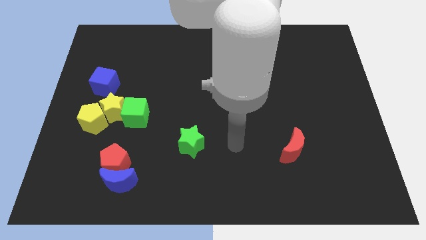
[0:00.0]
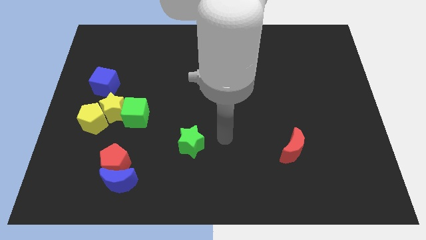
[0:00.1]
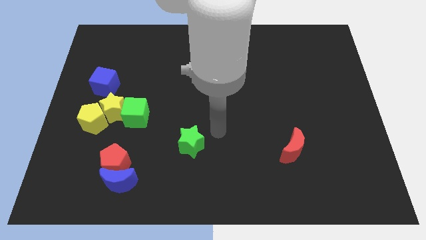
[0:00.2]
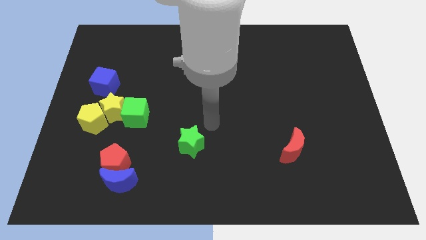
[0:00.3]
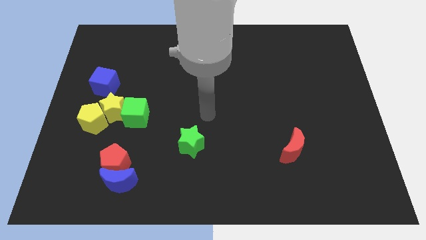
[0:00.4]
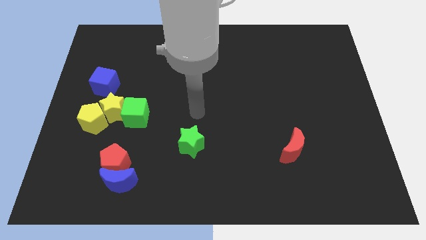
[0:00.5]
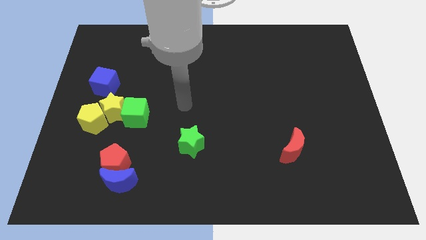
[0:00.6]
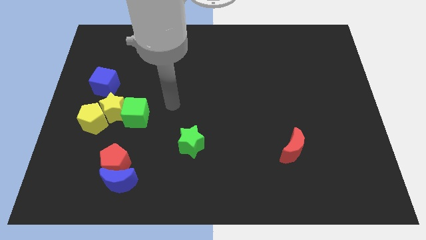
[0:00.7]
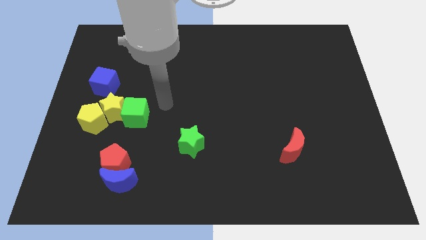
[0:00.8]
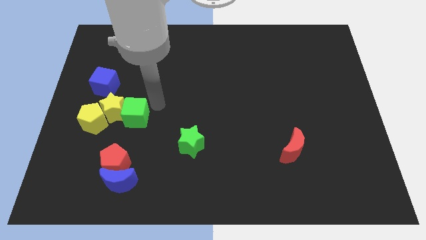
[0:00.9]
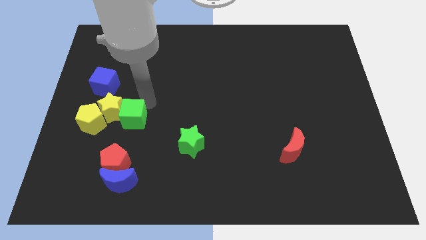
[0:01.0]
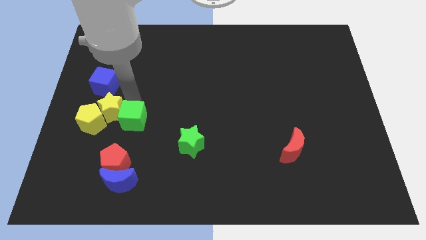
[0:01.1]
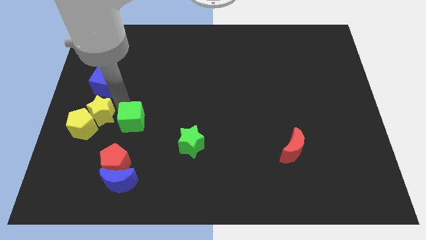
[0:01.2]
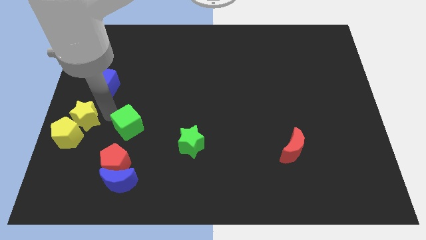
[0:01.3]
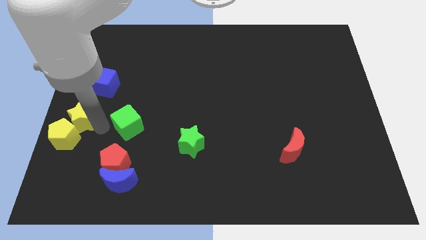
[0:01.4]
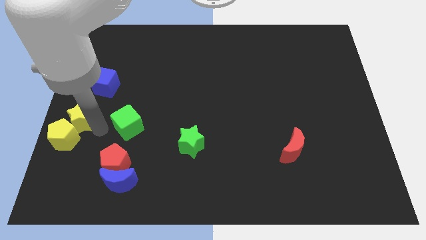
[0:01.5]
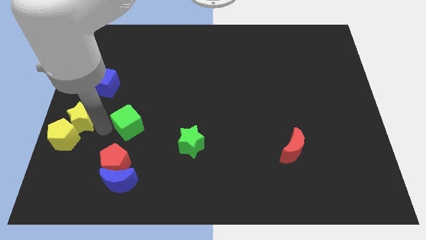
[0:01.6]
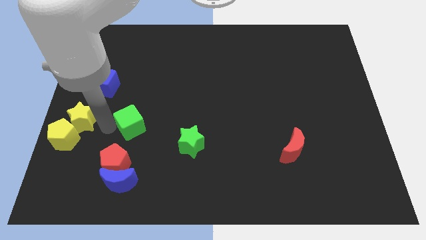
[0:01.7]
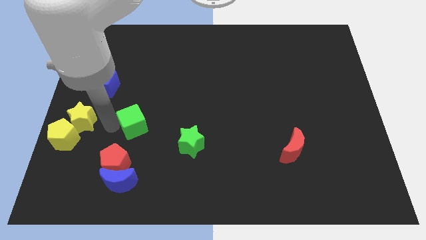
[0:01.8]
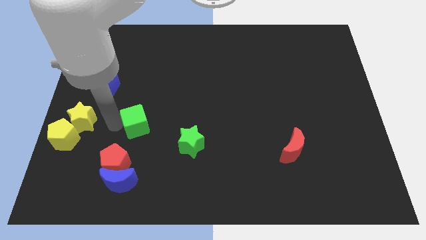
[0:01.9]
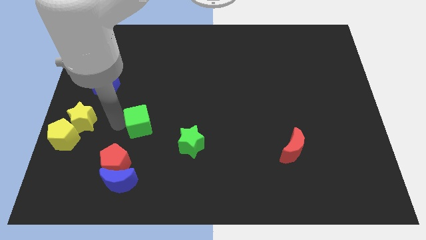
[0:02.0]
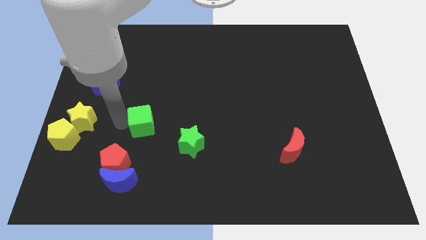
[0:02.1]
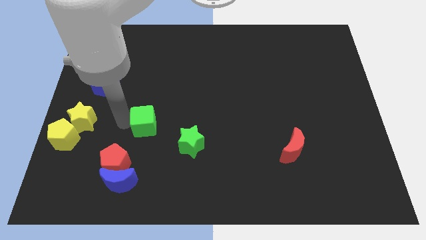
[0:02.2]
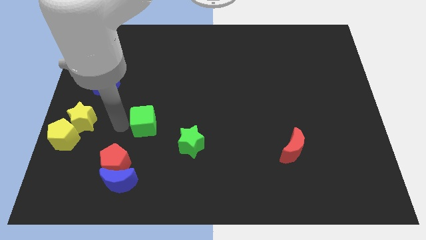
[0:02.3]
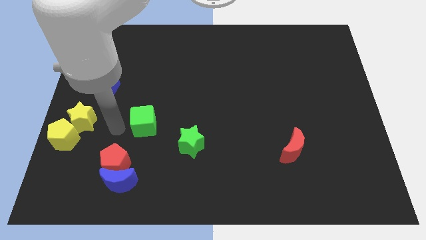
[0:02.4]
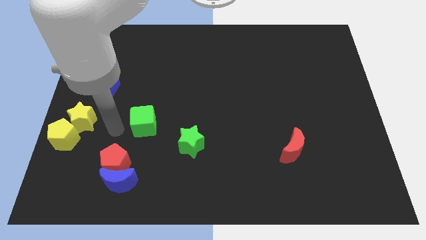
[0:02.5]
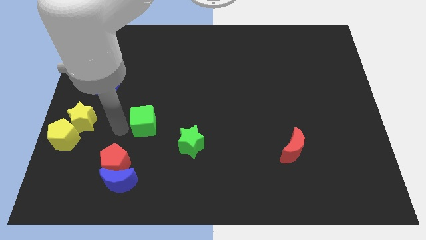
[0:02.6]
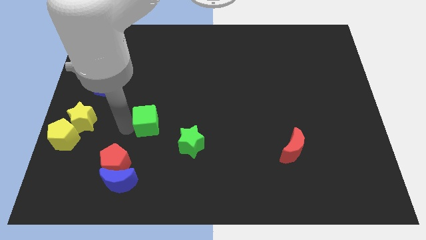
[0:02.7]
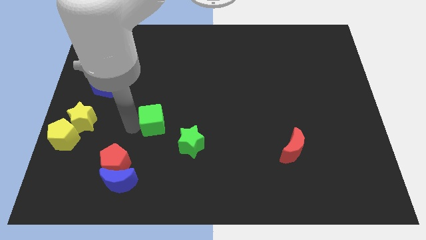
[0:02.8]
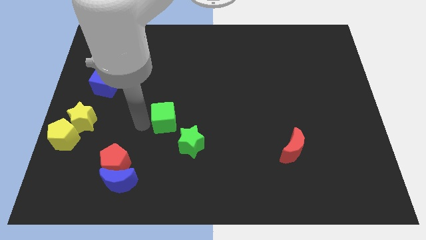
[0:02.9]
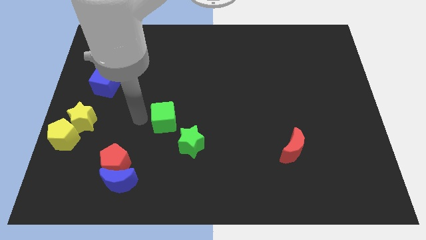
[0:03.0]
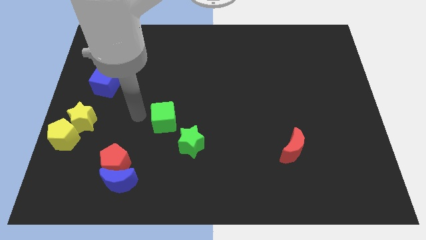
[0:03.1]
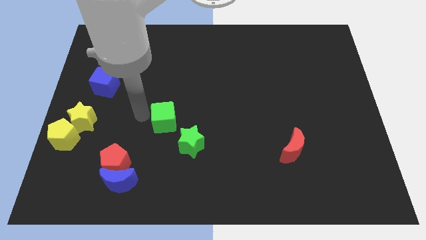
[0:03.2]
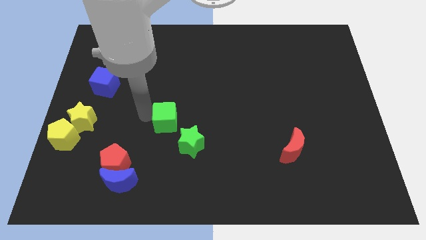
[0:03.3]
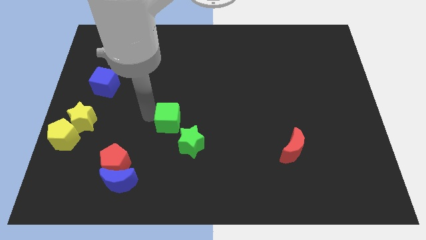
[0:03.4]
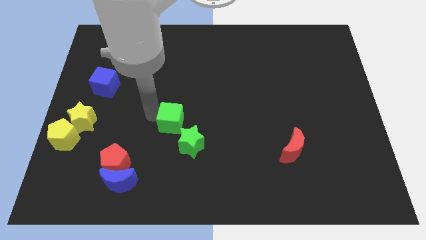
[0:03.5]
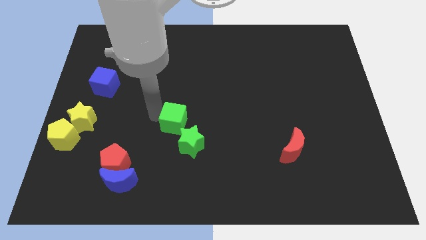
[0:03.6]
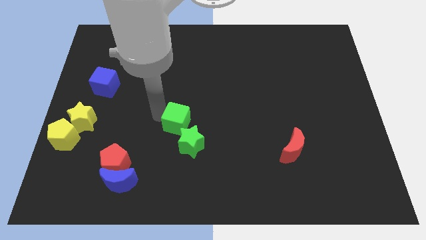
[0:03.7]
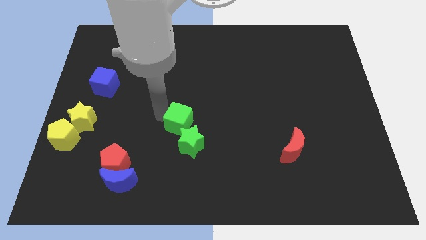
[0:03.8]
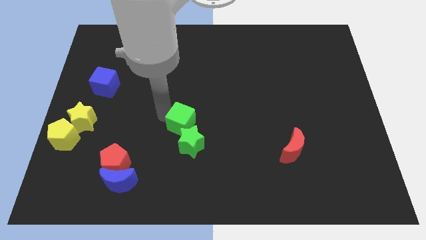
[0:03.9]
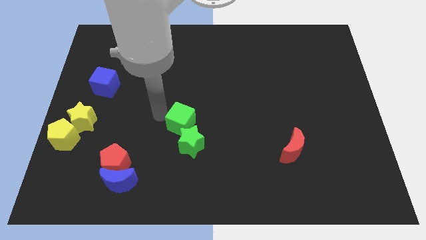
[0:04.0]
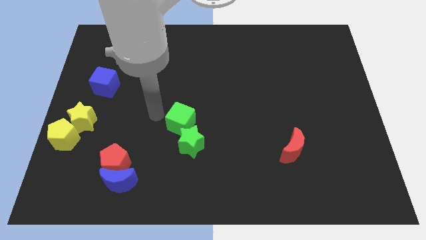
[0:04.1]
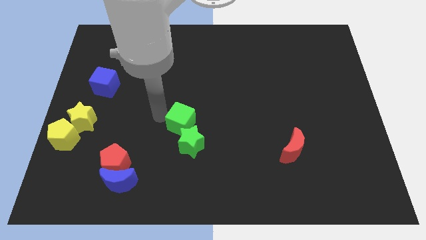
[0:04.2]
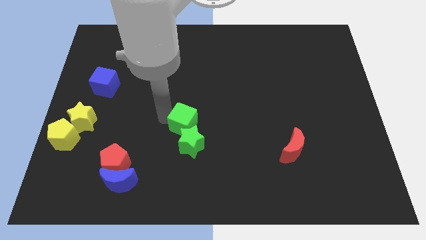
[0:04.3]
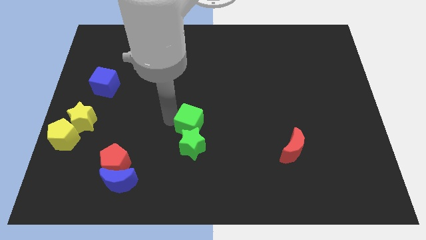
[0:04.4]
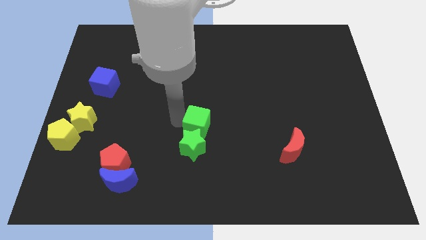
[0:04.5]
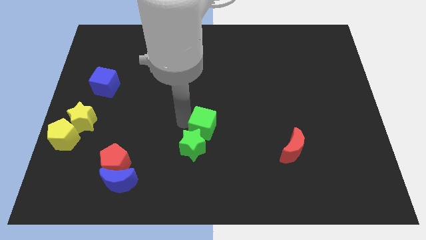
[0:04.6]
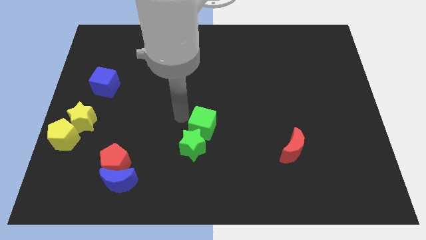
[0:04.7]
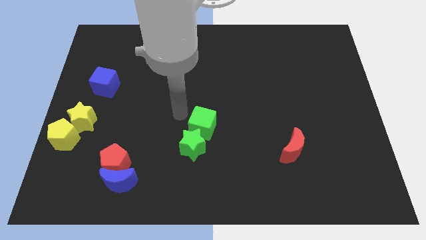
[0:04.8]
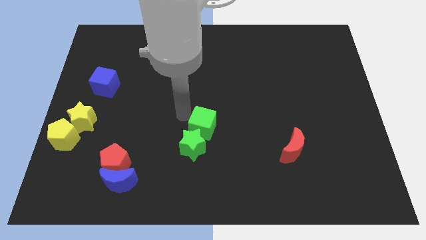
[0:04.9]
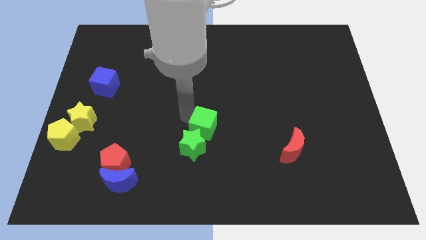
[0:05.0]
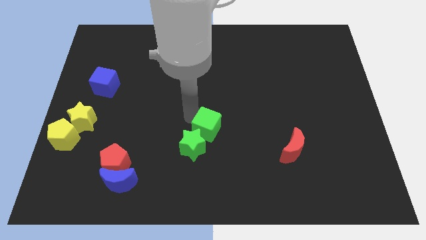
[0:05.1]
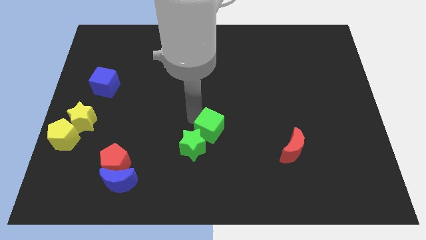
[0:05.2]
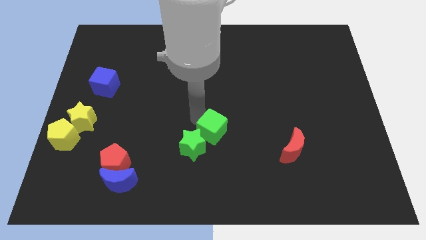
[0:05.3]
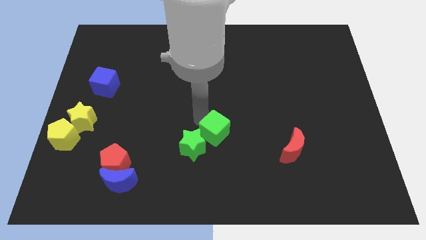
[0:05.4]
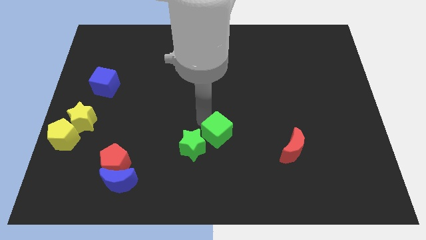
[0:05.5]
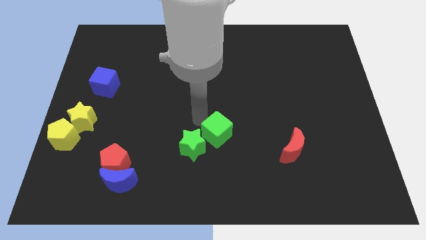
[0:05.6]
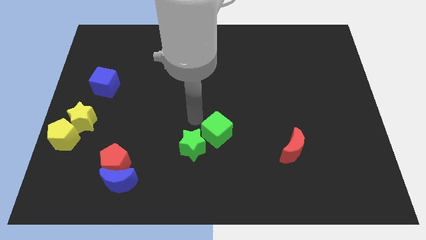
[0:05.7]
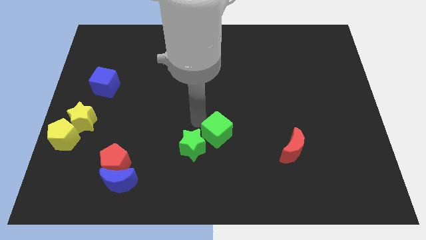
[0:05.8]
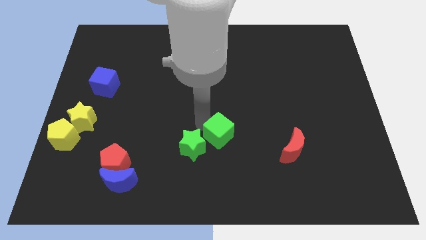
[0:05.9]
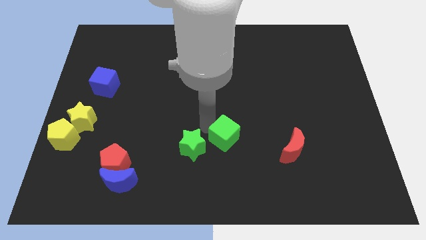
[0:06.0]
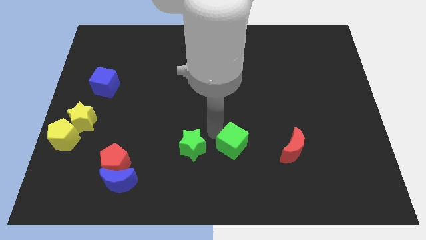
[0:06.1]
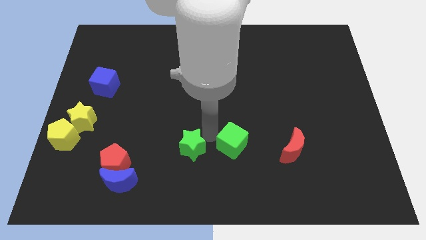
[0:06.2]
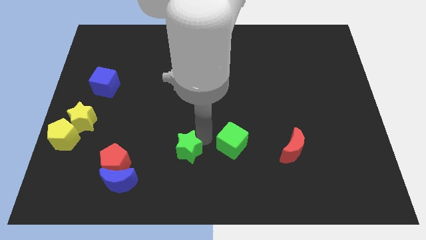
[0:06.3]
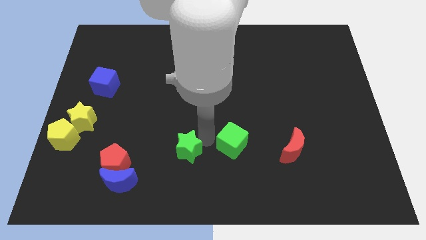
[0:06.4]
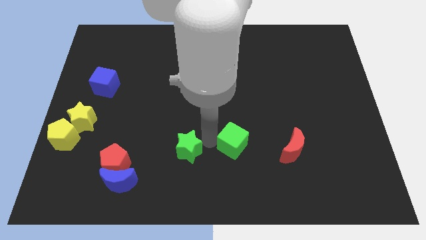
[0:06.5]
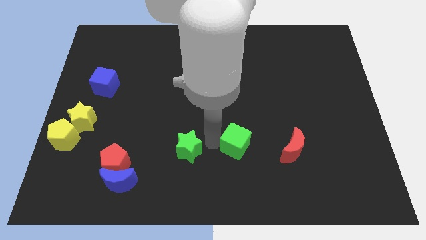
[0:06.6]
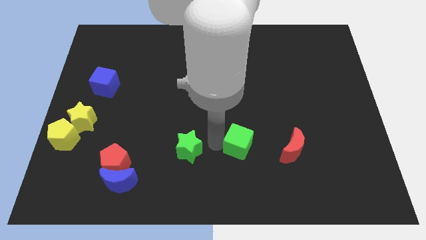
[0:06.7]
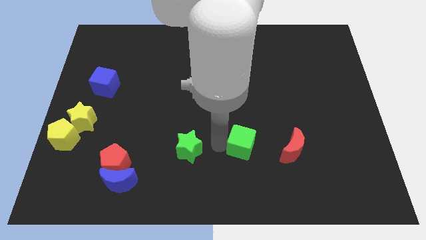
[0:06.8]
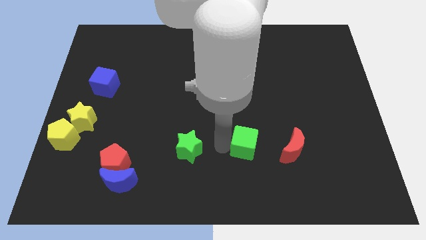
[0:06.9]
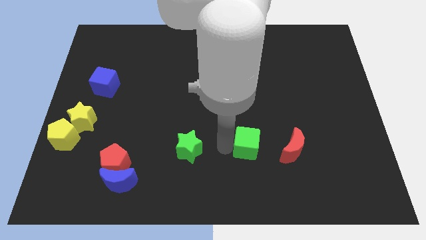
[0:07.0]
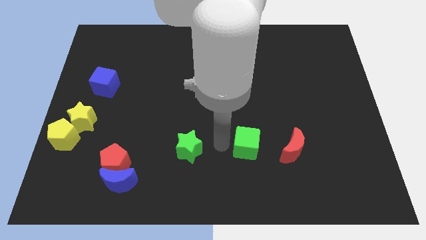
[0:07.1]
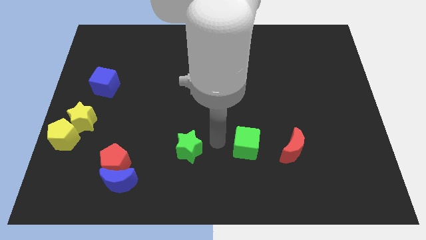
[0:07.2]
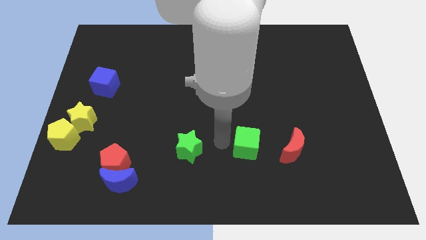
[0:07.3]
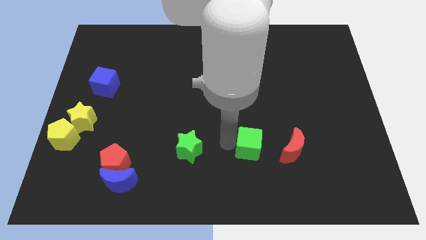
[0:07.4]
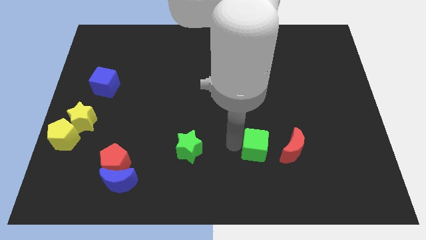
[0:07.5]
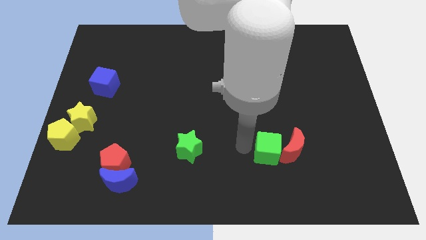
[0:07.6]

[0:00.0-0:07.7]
put the green cube towards the red moon
